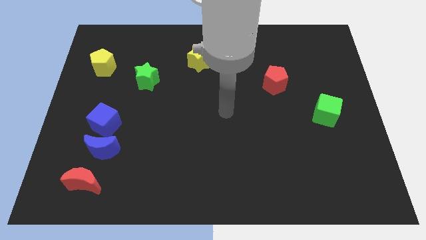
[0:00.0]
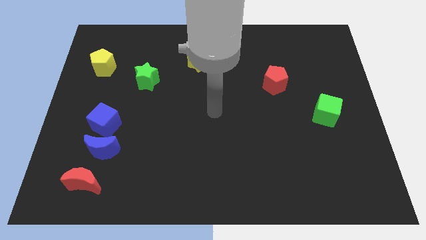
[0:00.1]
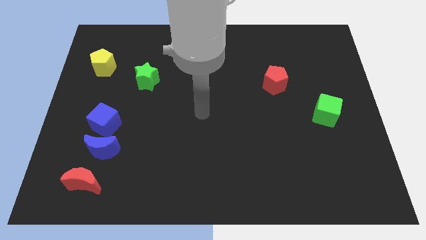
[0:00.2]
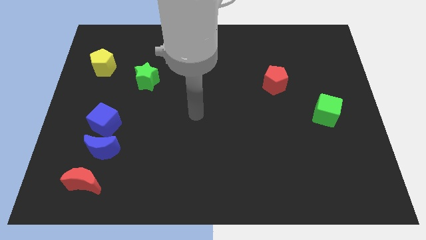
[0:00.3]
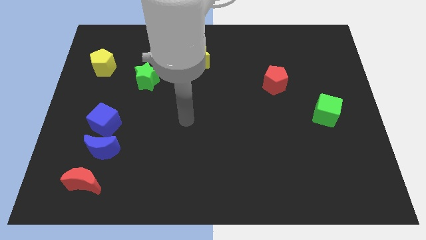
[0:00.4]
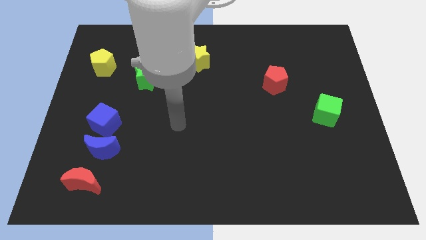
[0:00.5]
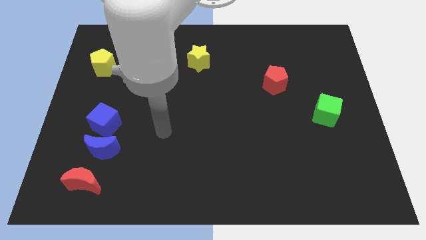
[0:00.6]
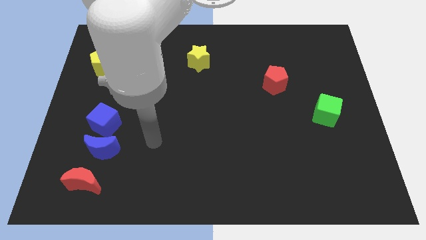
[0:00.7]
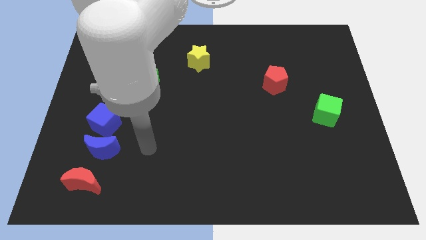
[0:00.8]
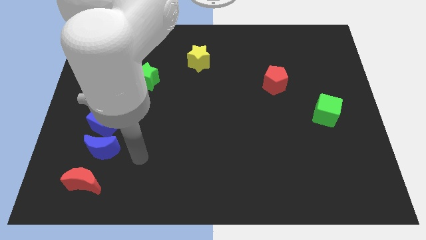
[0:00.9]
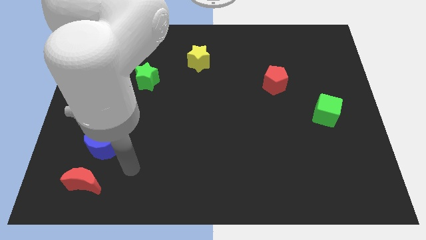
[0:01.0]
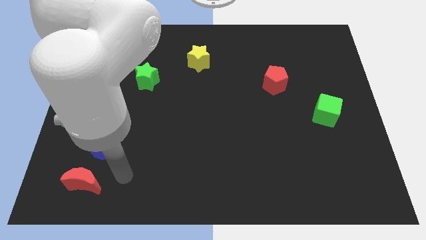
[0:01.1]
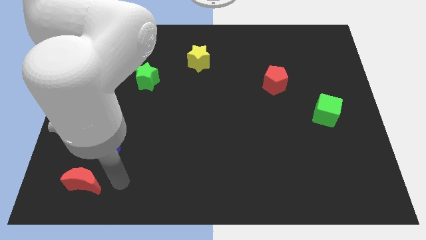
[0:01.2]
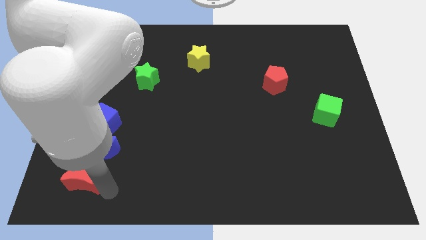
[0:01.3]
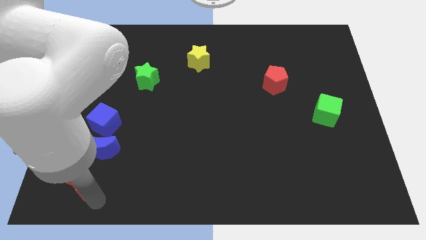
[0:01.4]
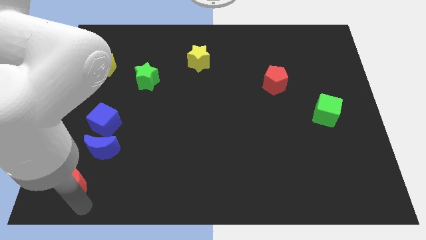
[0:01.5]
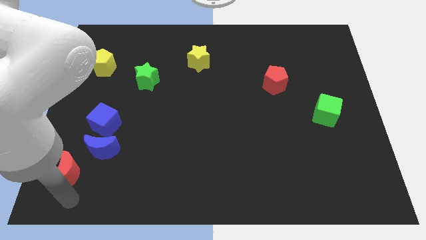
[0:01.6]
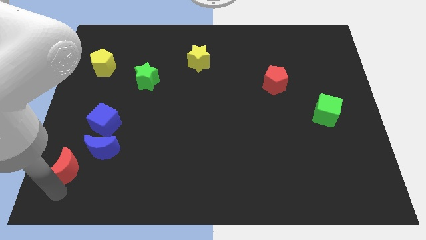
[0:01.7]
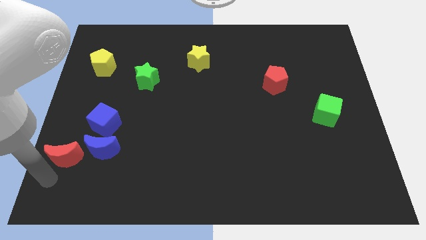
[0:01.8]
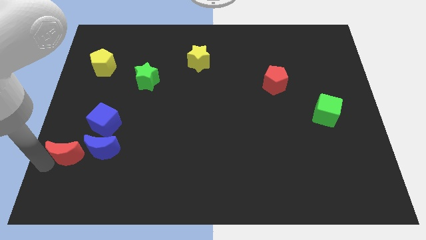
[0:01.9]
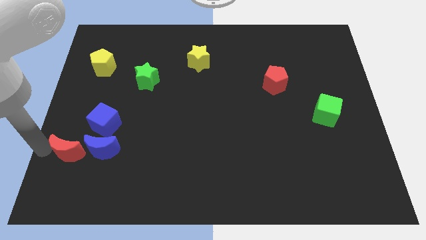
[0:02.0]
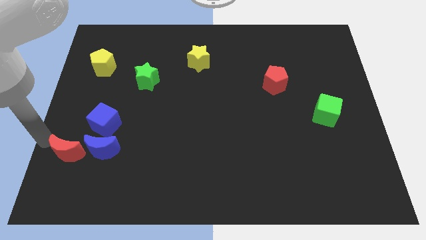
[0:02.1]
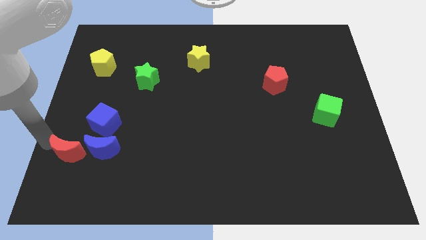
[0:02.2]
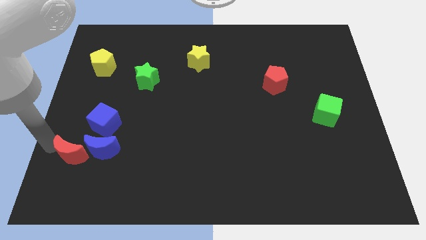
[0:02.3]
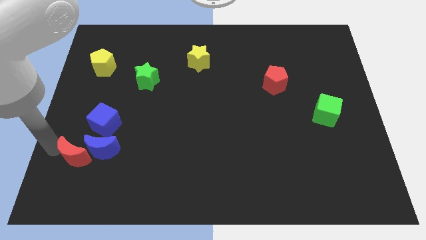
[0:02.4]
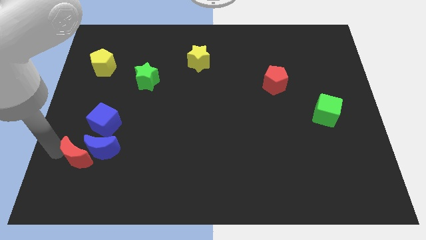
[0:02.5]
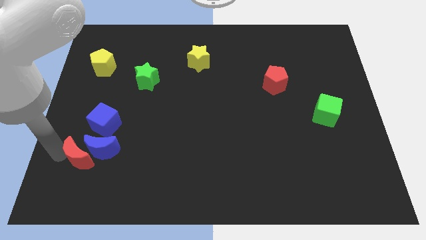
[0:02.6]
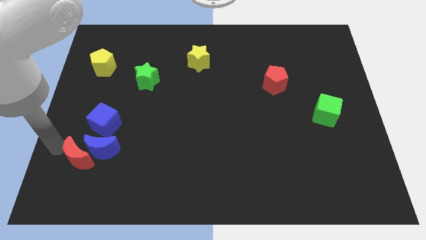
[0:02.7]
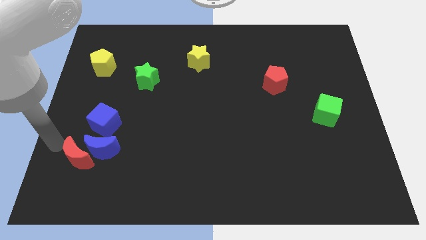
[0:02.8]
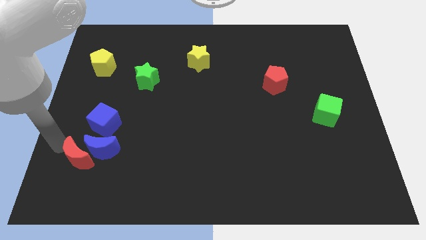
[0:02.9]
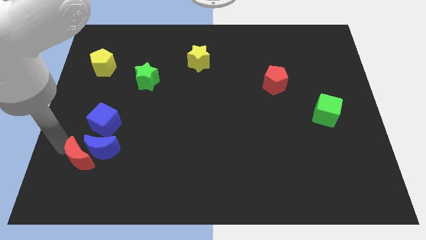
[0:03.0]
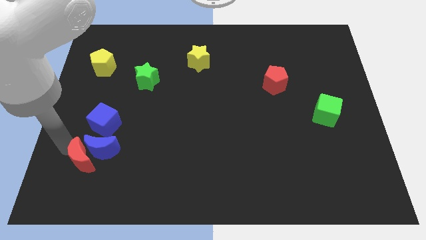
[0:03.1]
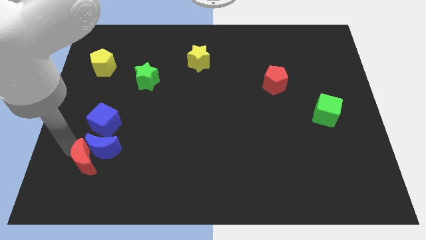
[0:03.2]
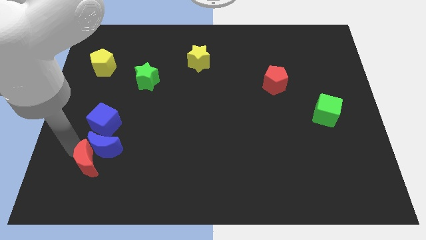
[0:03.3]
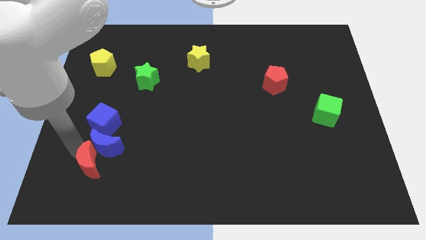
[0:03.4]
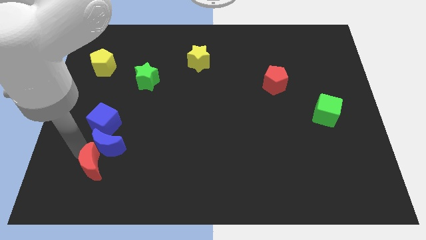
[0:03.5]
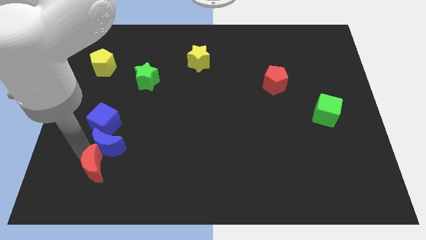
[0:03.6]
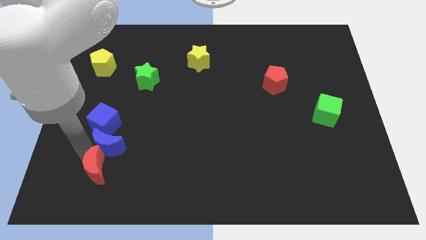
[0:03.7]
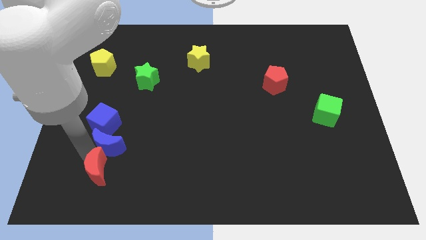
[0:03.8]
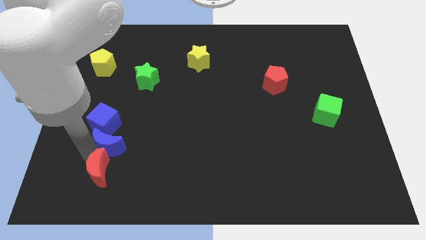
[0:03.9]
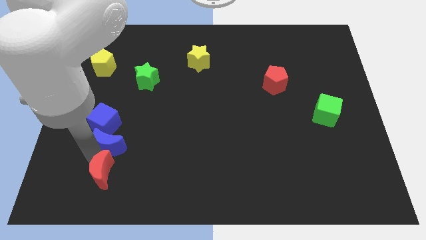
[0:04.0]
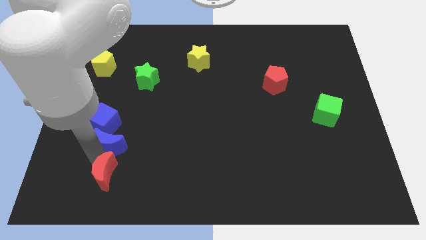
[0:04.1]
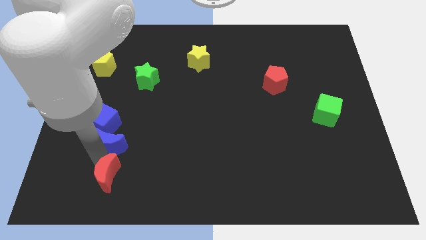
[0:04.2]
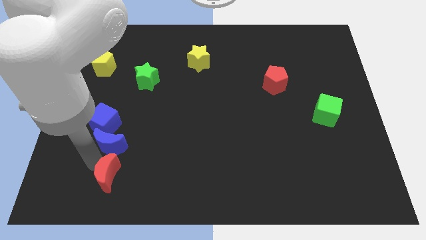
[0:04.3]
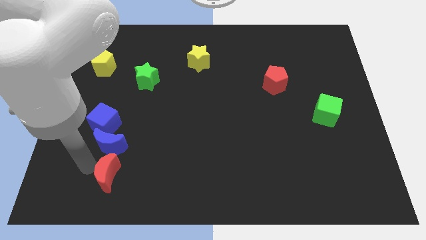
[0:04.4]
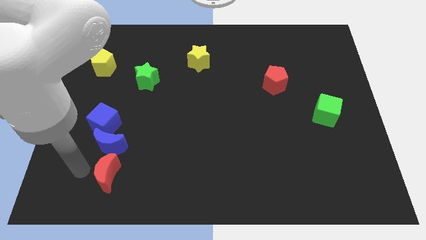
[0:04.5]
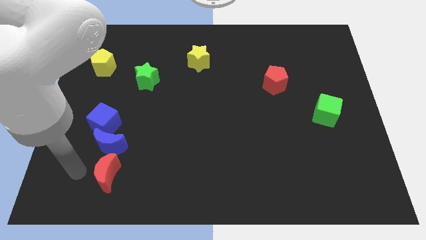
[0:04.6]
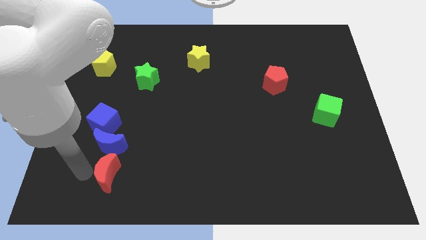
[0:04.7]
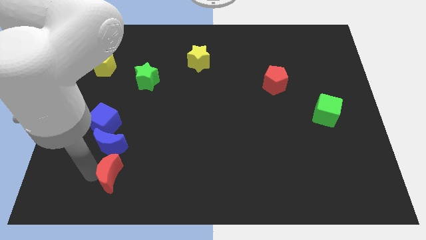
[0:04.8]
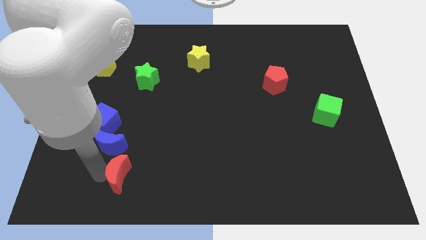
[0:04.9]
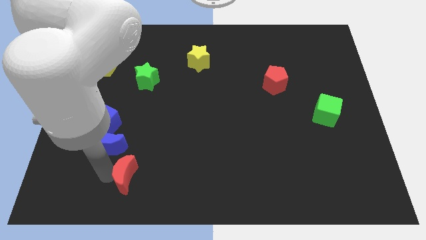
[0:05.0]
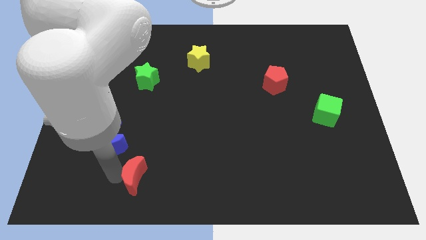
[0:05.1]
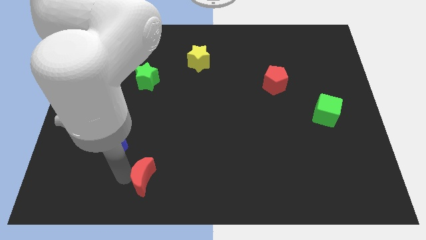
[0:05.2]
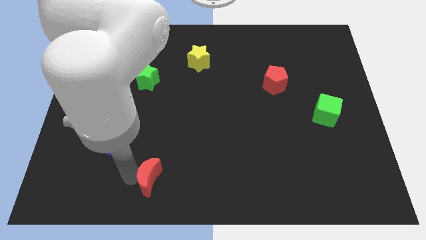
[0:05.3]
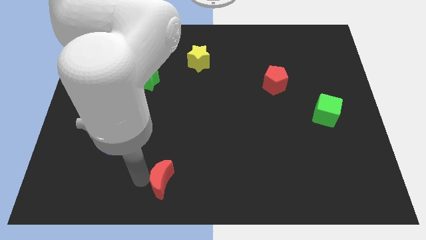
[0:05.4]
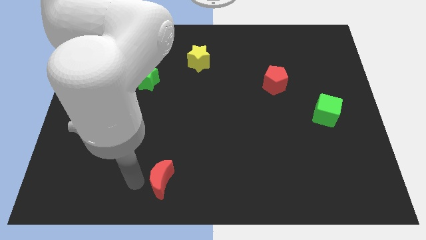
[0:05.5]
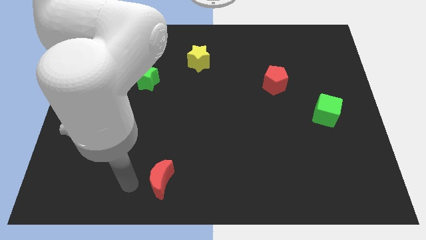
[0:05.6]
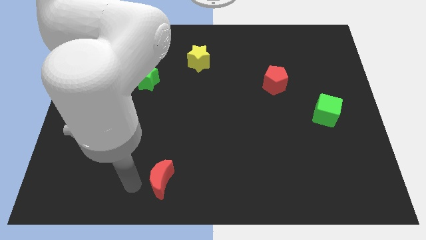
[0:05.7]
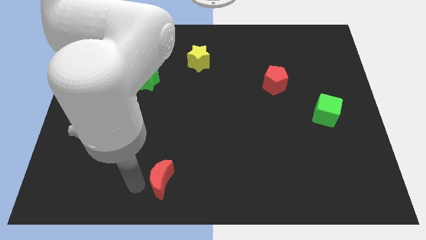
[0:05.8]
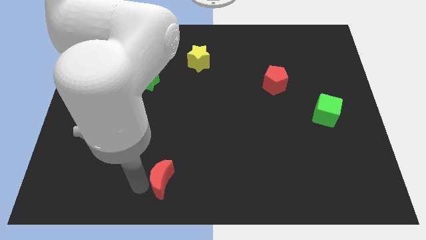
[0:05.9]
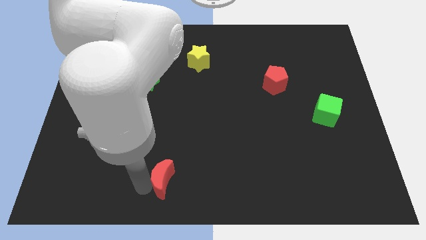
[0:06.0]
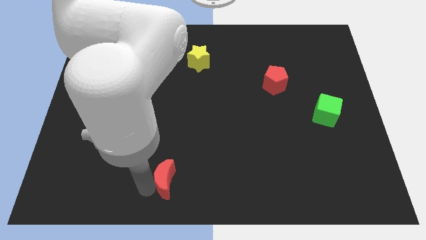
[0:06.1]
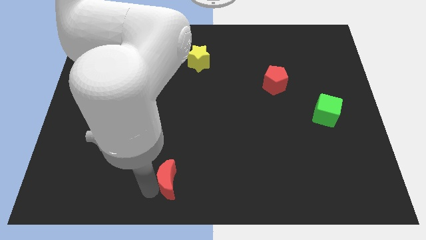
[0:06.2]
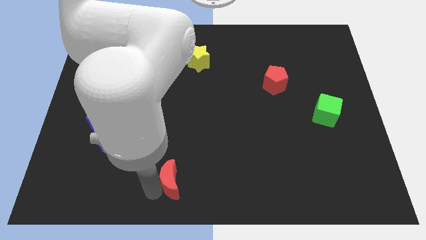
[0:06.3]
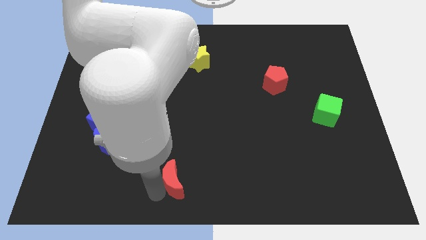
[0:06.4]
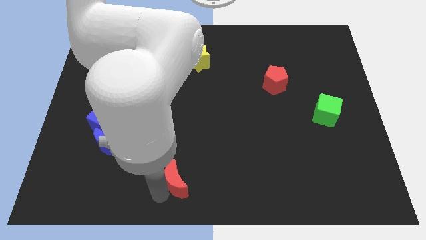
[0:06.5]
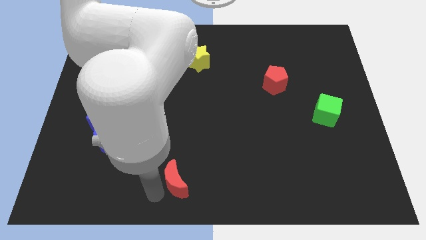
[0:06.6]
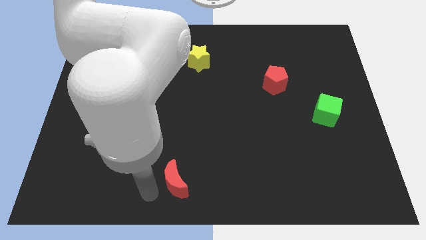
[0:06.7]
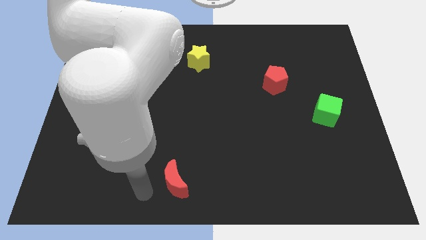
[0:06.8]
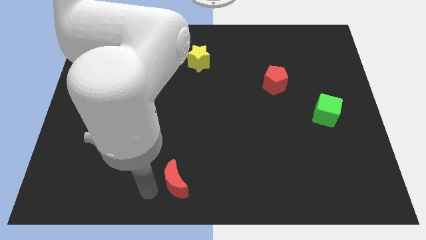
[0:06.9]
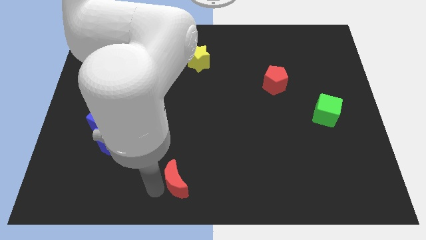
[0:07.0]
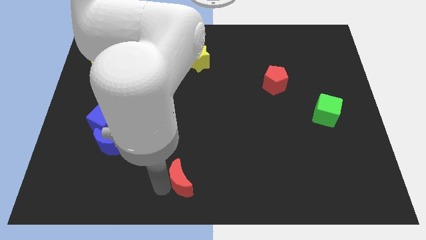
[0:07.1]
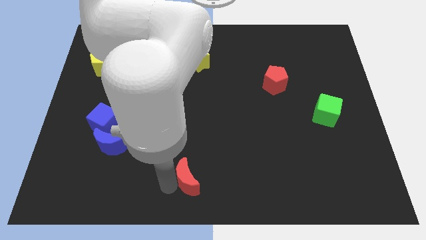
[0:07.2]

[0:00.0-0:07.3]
slide the red moon to the right

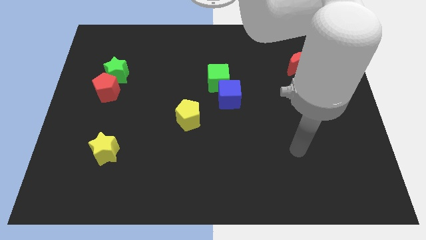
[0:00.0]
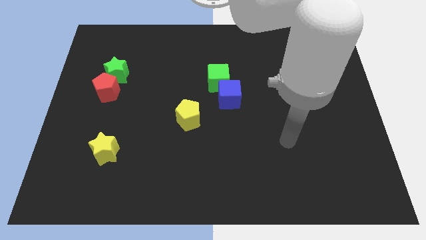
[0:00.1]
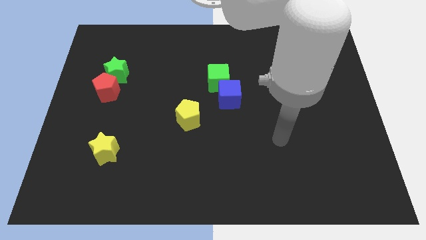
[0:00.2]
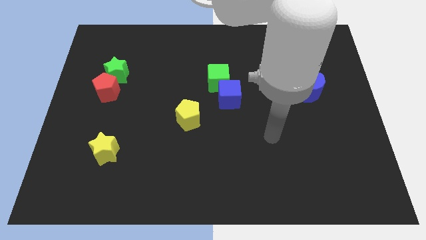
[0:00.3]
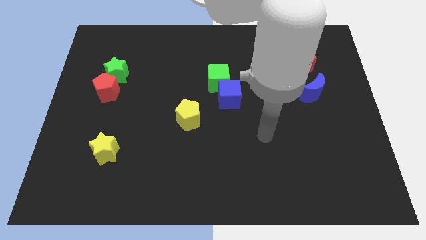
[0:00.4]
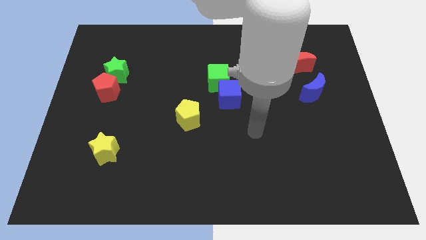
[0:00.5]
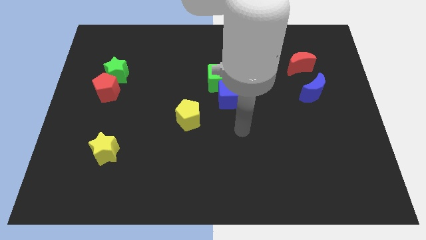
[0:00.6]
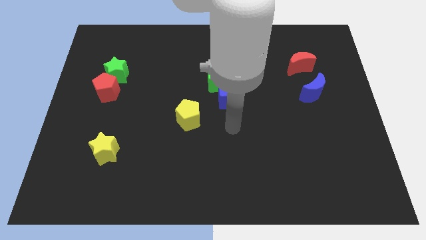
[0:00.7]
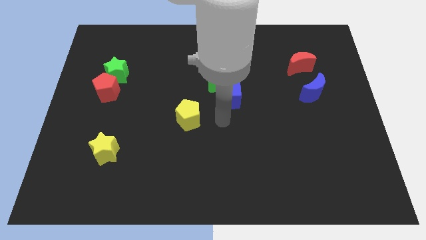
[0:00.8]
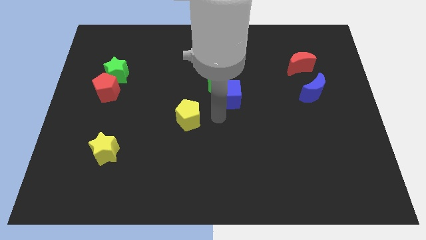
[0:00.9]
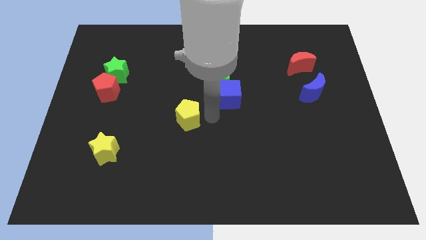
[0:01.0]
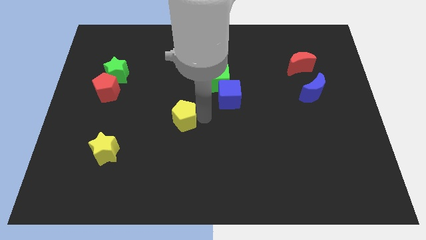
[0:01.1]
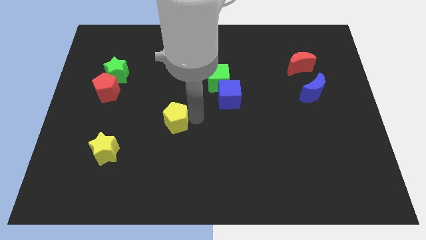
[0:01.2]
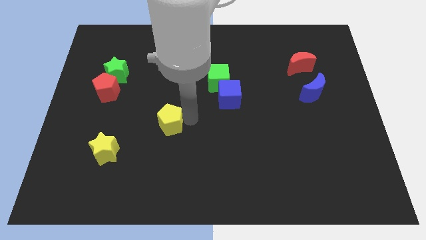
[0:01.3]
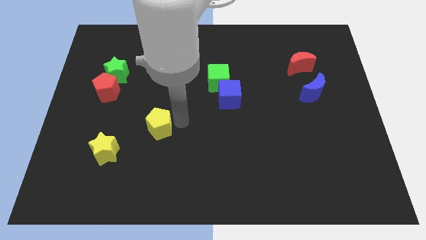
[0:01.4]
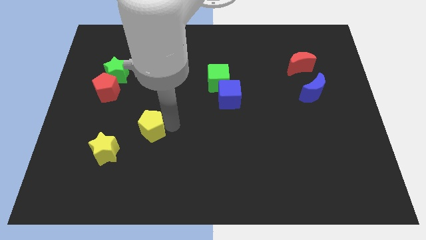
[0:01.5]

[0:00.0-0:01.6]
move the yellow pentagon to the left slightly
